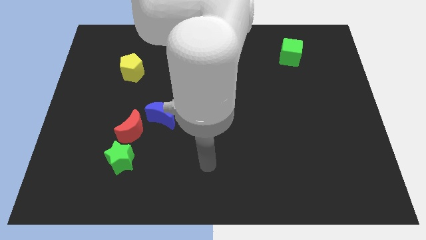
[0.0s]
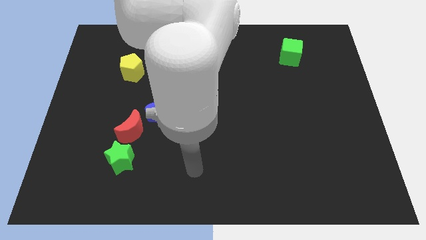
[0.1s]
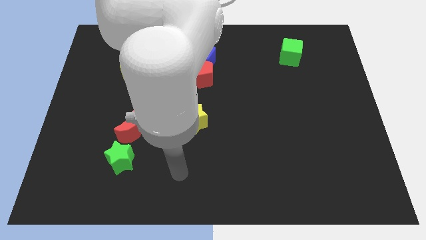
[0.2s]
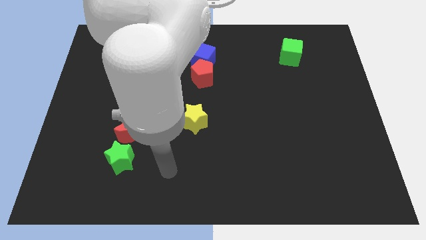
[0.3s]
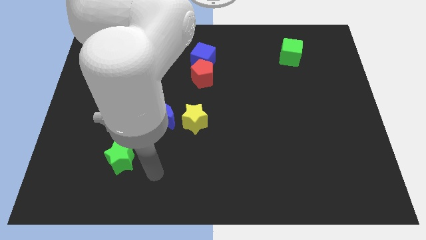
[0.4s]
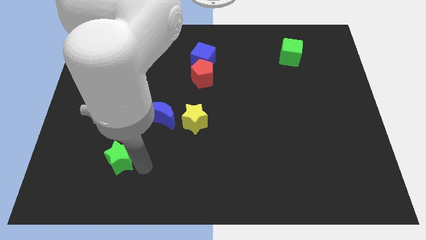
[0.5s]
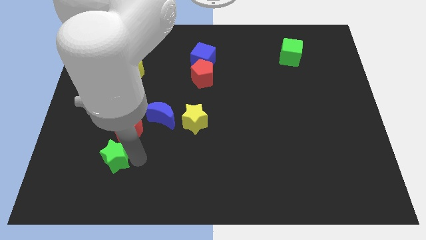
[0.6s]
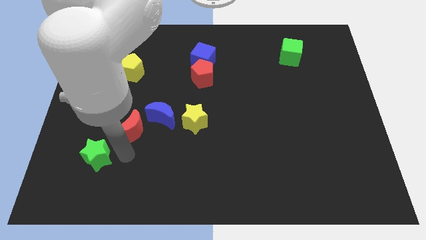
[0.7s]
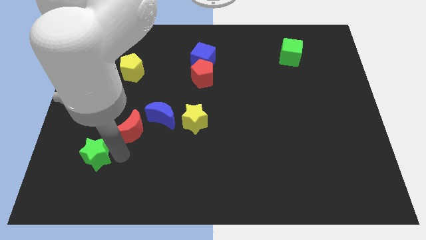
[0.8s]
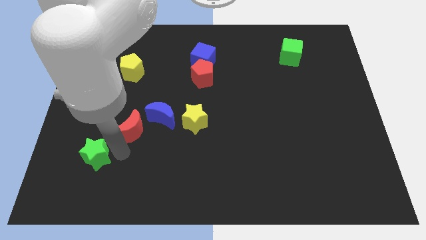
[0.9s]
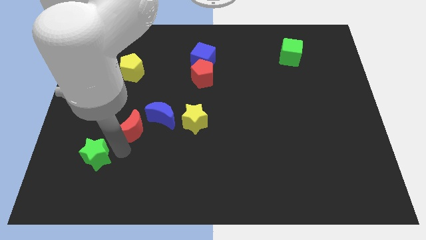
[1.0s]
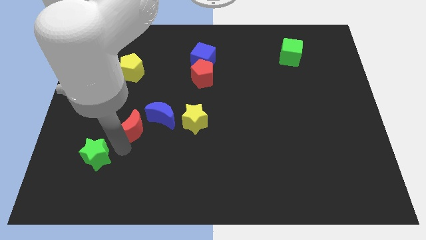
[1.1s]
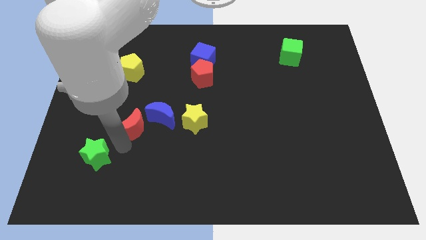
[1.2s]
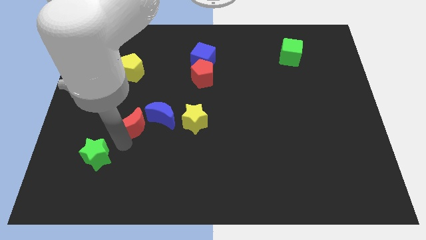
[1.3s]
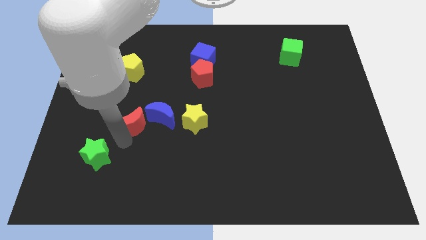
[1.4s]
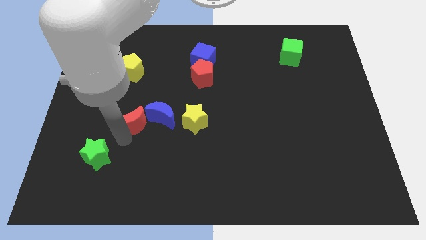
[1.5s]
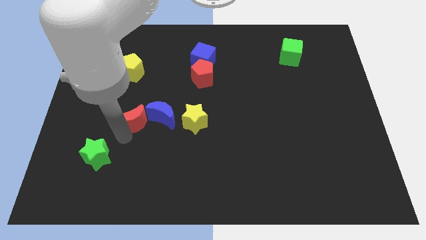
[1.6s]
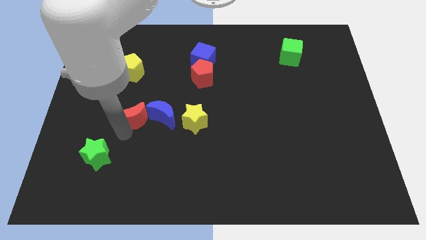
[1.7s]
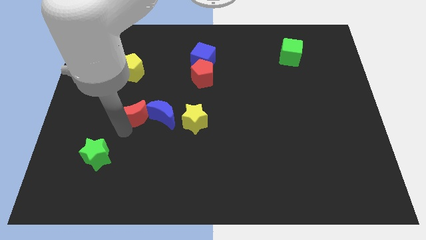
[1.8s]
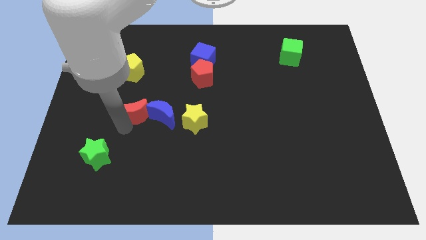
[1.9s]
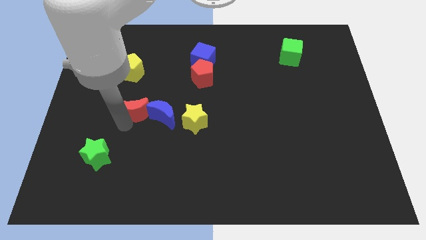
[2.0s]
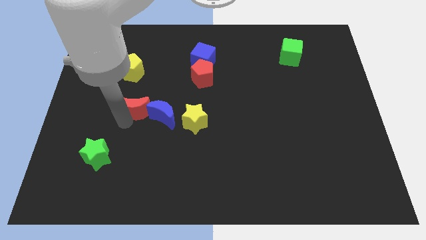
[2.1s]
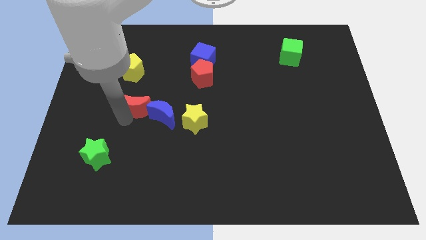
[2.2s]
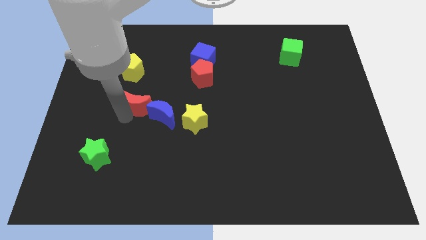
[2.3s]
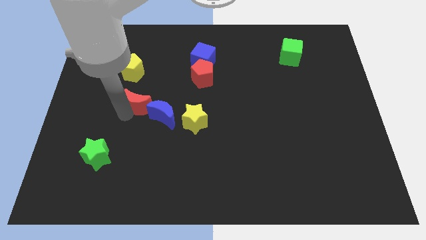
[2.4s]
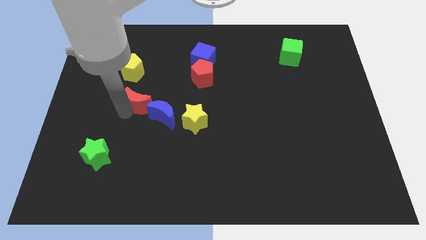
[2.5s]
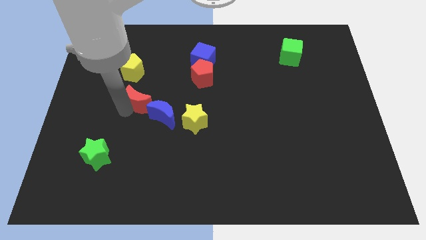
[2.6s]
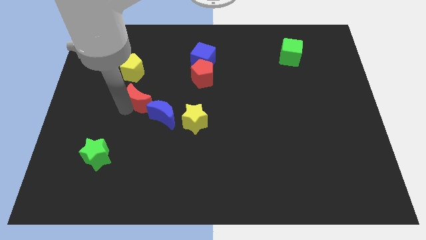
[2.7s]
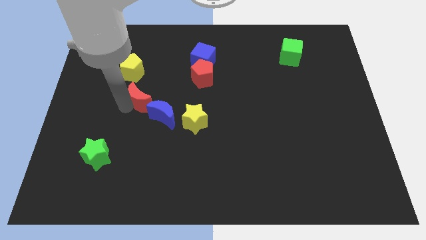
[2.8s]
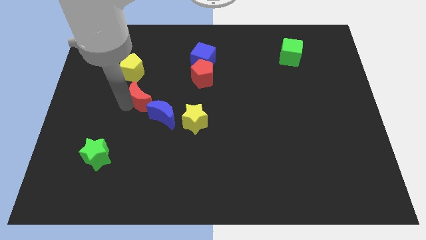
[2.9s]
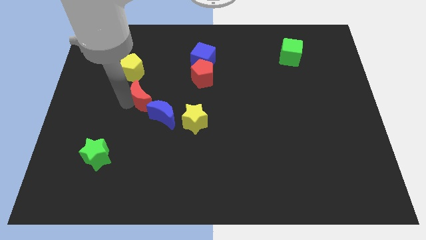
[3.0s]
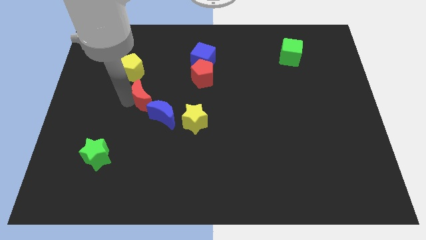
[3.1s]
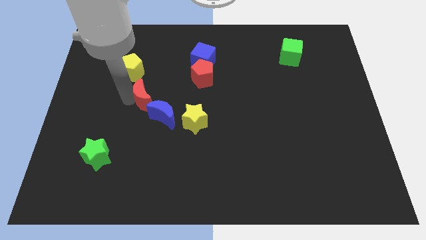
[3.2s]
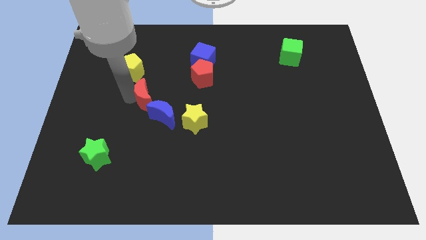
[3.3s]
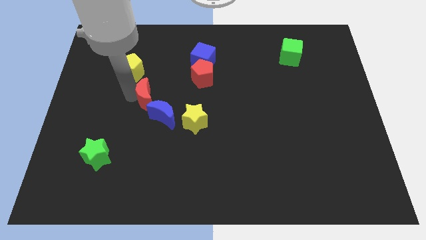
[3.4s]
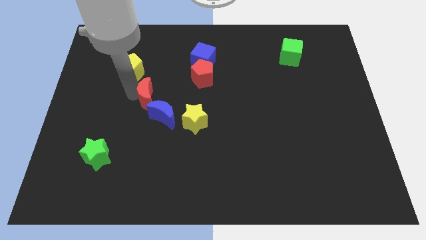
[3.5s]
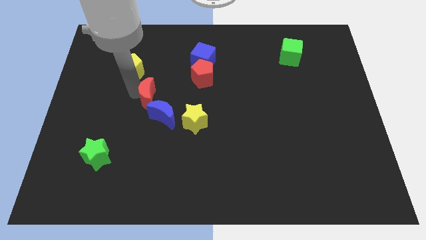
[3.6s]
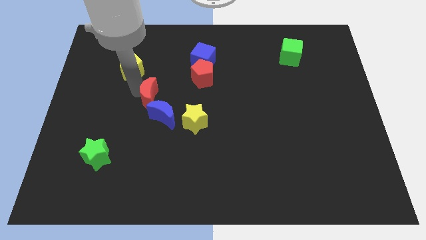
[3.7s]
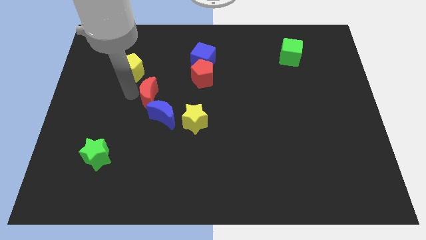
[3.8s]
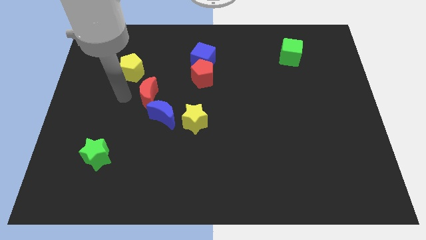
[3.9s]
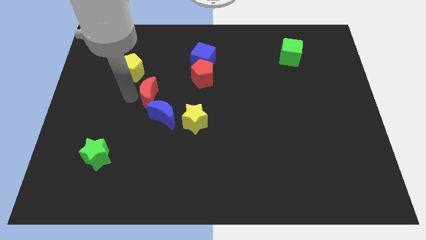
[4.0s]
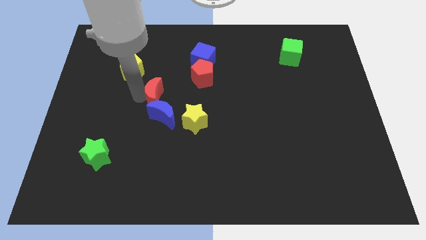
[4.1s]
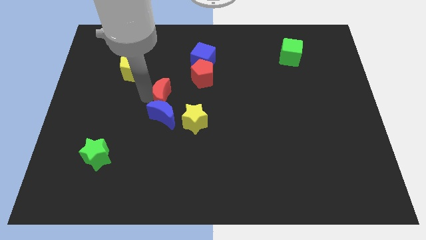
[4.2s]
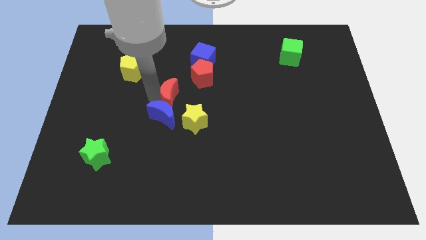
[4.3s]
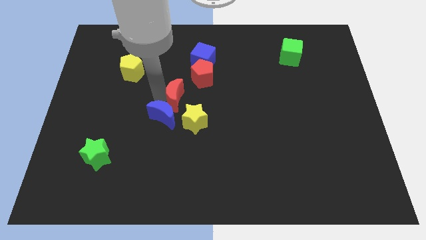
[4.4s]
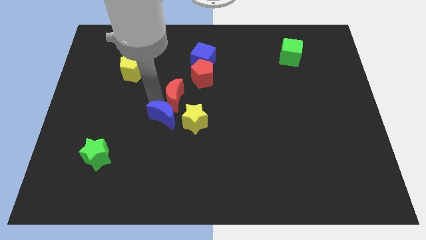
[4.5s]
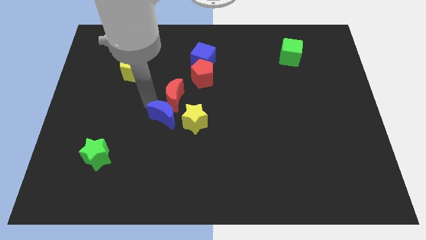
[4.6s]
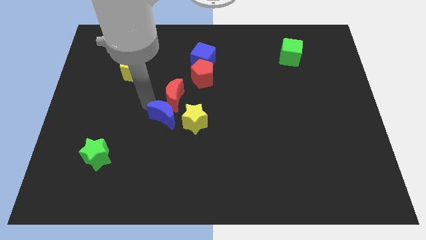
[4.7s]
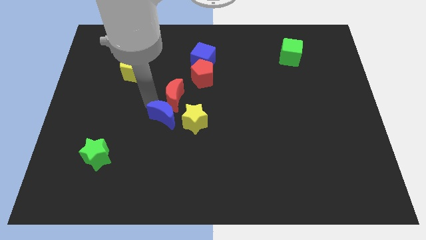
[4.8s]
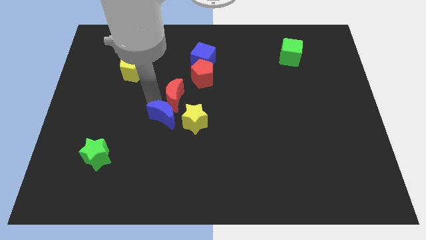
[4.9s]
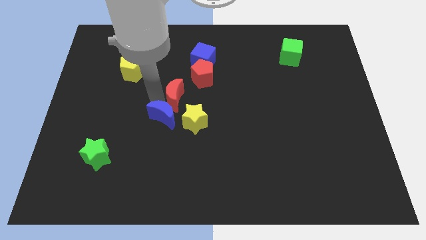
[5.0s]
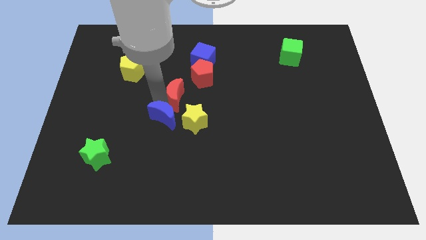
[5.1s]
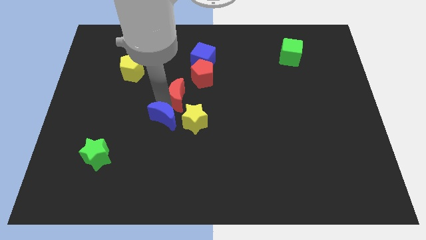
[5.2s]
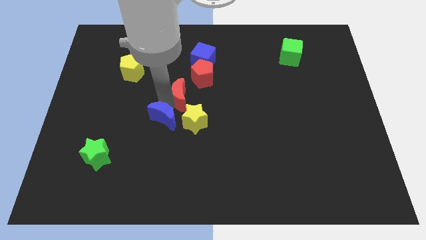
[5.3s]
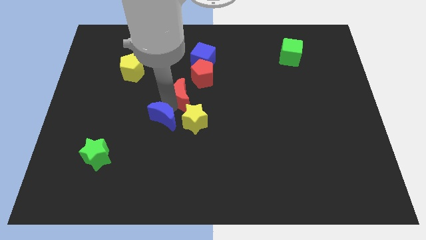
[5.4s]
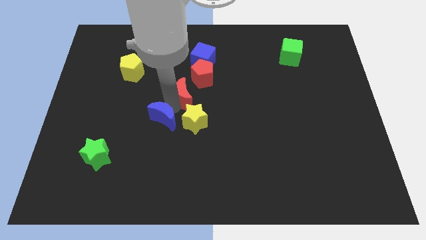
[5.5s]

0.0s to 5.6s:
put the red moon to the bottom side of the blue cube

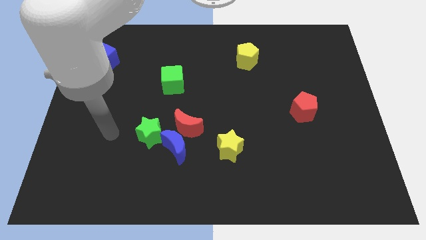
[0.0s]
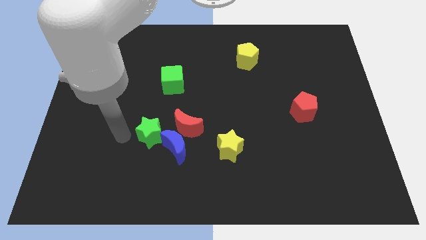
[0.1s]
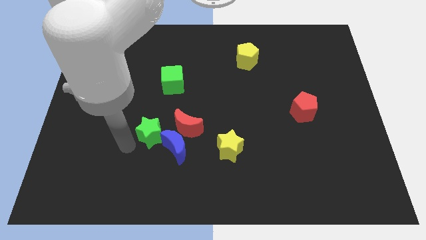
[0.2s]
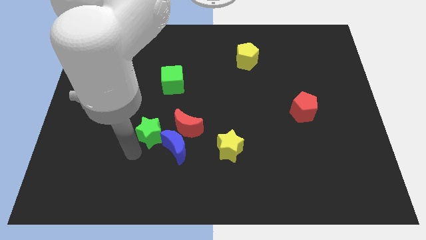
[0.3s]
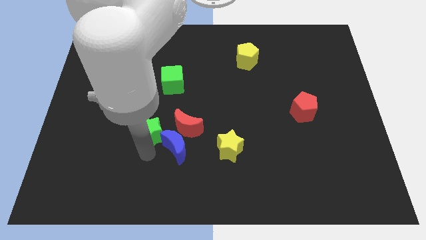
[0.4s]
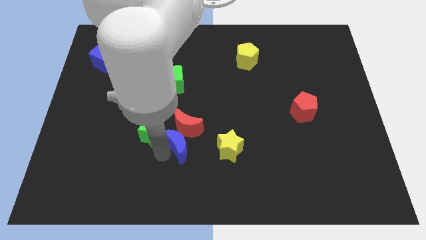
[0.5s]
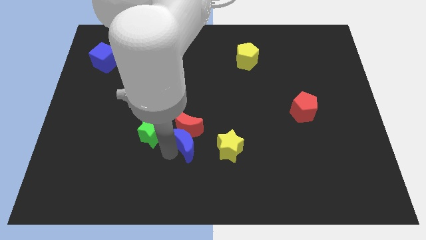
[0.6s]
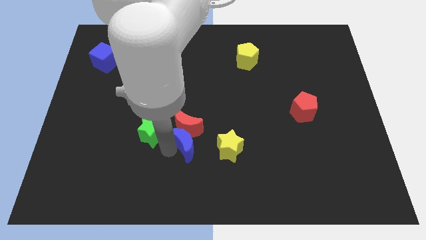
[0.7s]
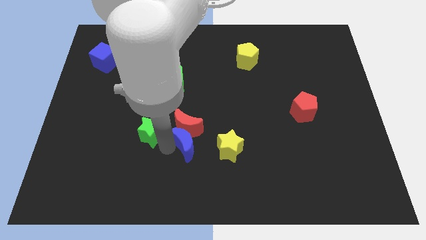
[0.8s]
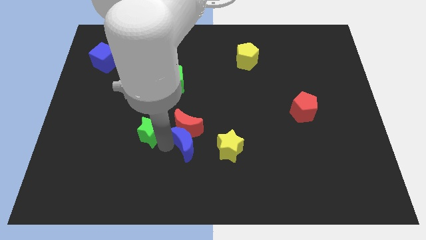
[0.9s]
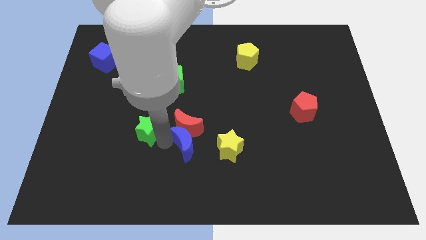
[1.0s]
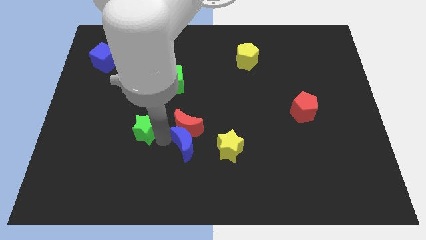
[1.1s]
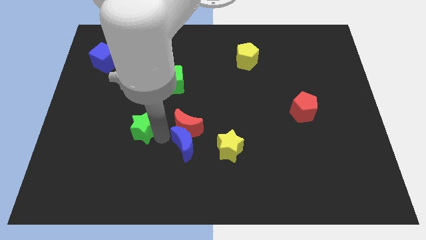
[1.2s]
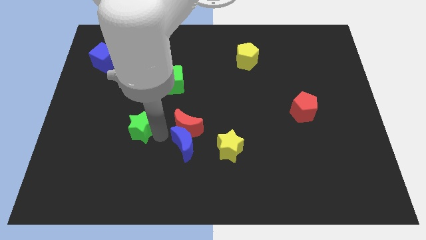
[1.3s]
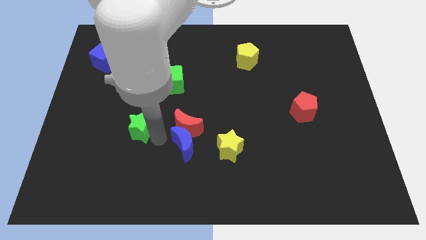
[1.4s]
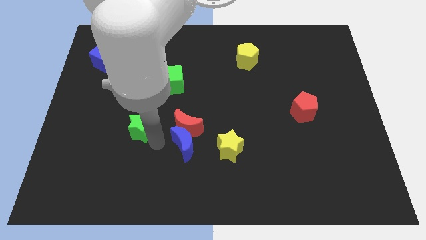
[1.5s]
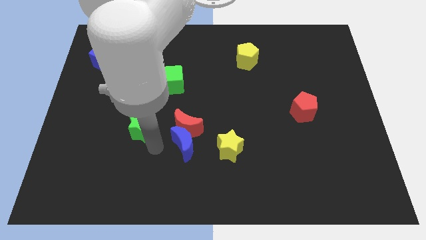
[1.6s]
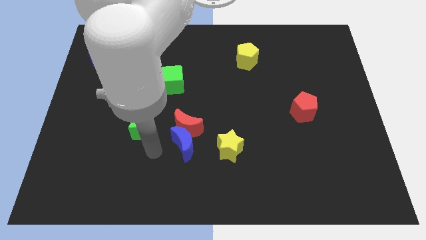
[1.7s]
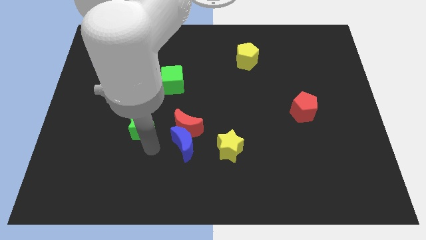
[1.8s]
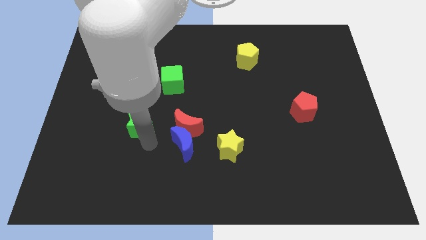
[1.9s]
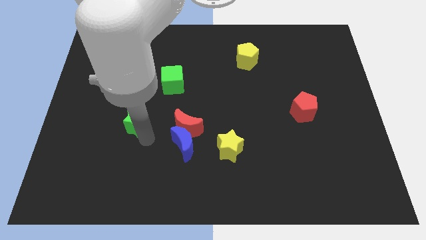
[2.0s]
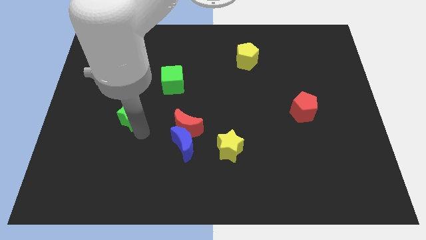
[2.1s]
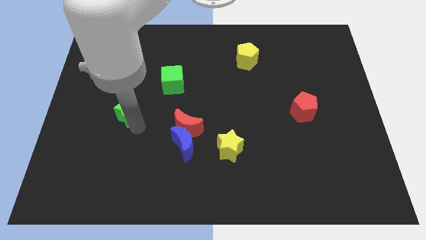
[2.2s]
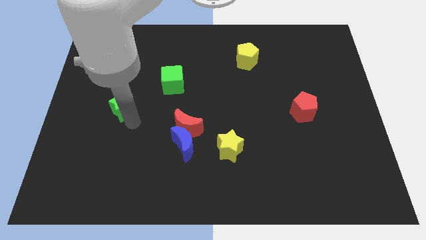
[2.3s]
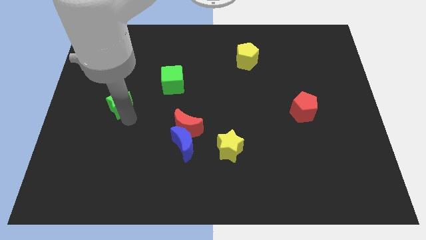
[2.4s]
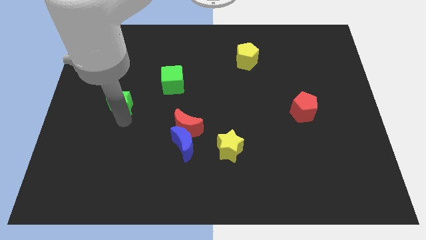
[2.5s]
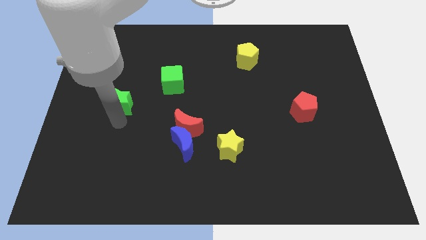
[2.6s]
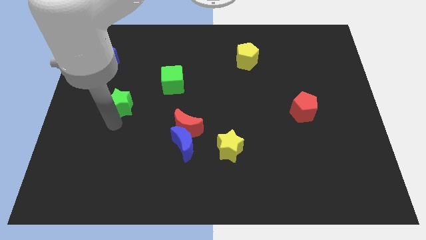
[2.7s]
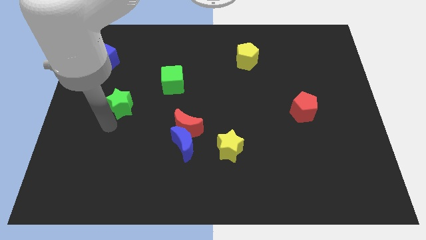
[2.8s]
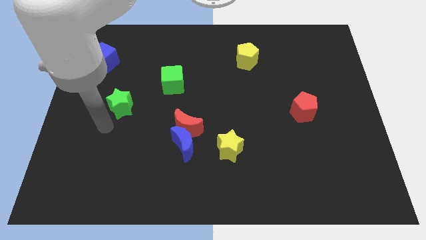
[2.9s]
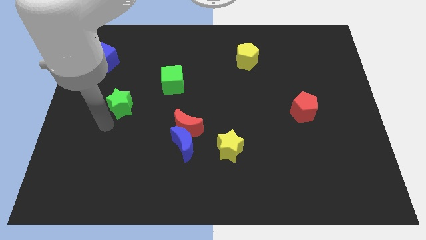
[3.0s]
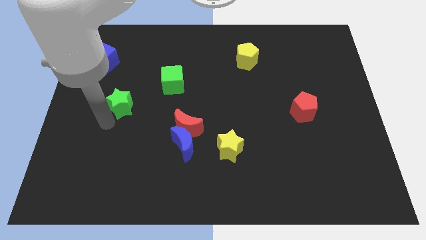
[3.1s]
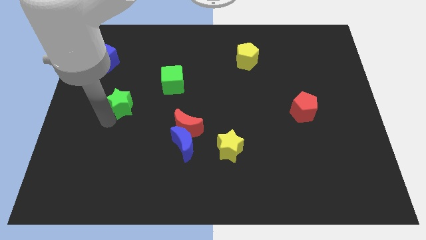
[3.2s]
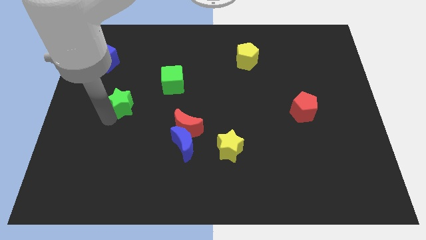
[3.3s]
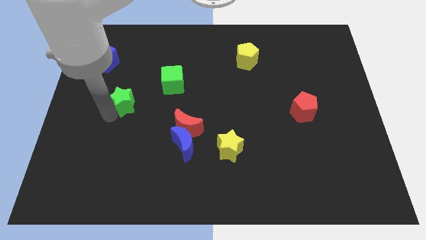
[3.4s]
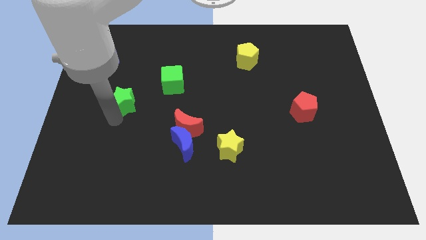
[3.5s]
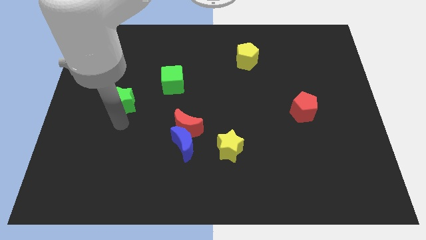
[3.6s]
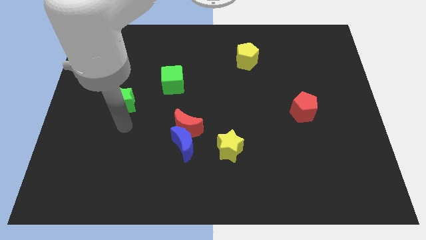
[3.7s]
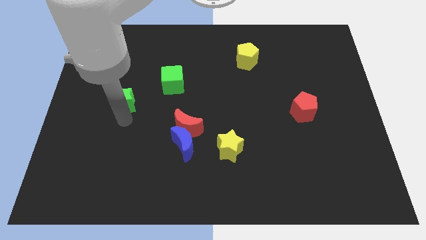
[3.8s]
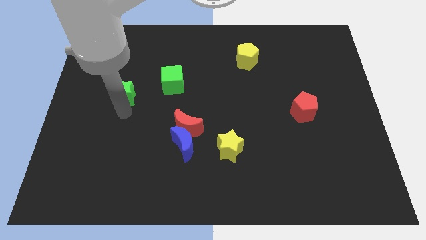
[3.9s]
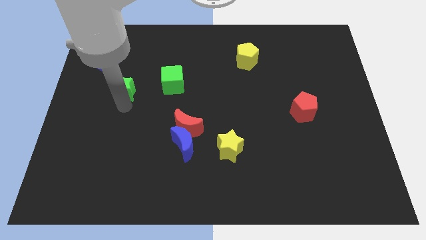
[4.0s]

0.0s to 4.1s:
put the green star to the bottom right of the blue cube
